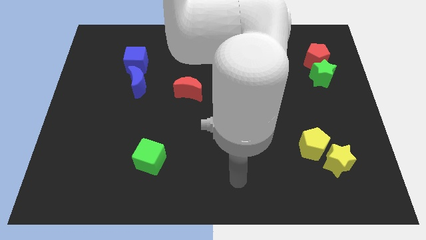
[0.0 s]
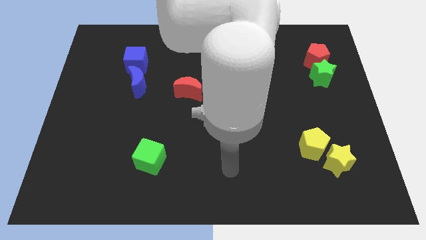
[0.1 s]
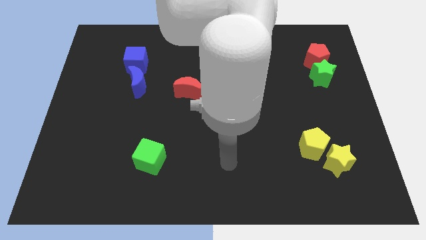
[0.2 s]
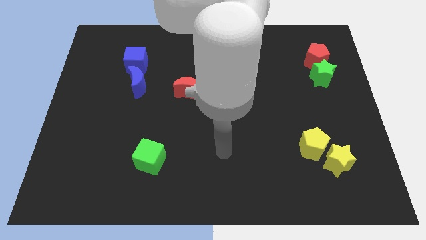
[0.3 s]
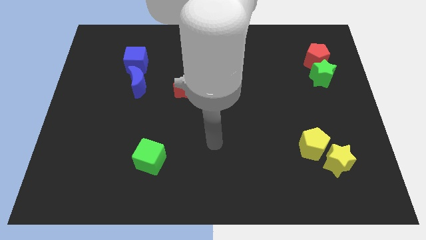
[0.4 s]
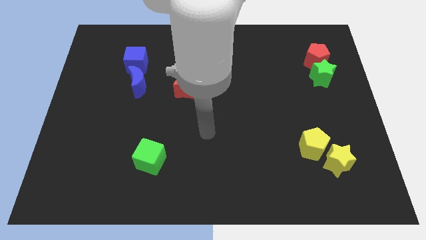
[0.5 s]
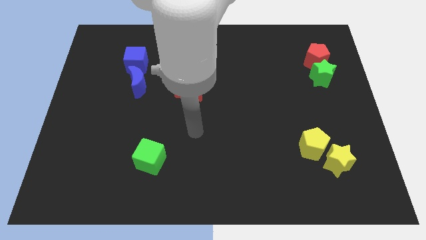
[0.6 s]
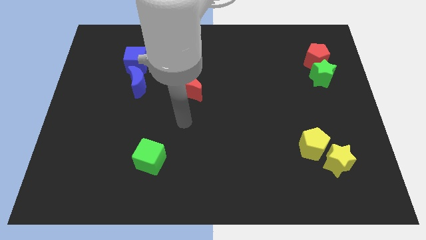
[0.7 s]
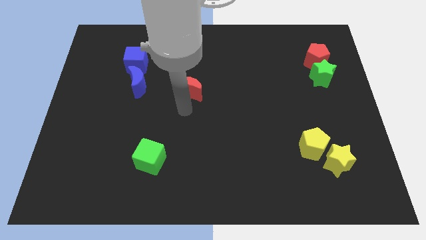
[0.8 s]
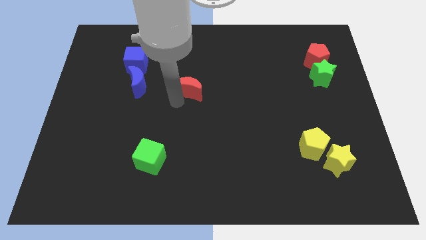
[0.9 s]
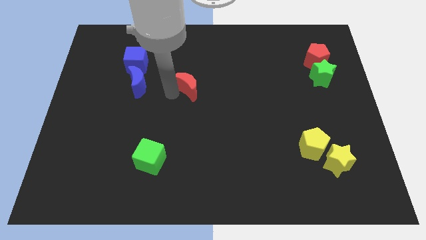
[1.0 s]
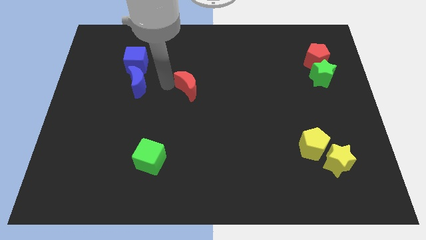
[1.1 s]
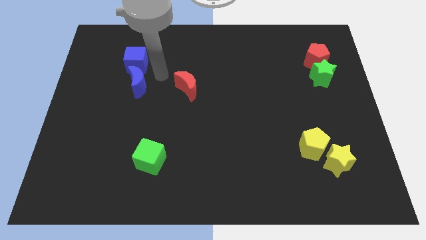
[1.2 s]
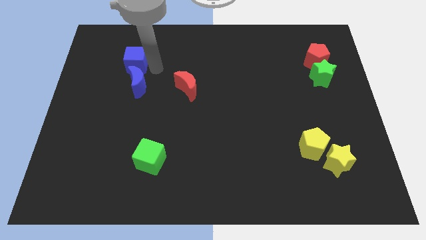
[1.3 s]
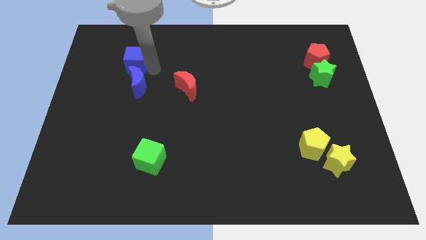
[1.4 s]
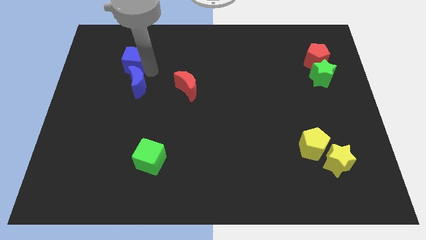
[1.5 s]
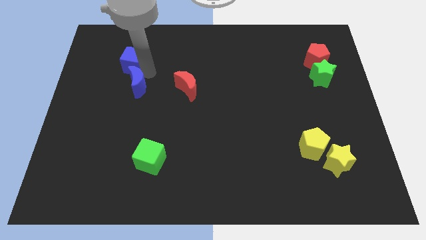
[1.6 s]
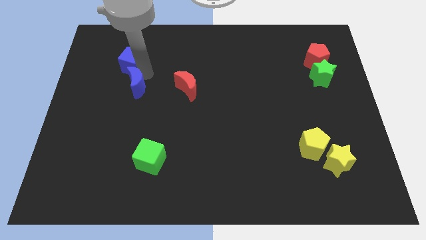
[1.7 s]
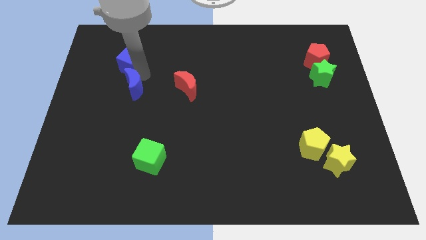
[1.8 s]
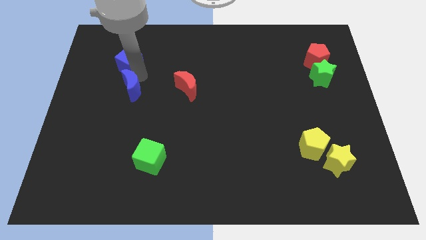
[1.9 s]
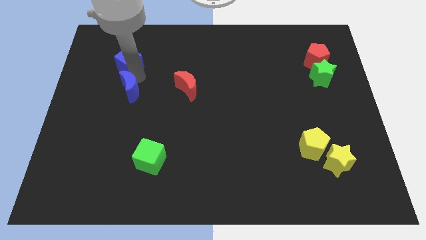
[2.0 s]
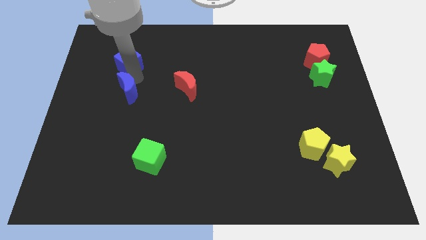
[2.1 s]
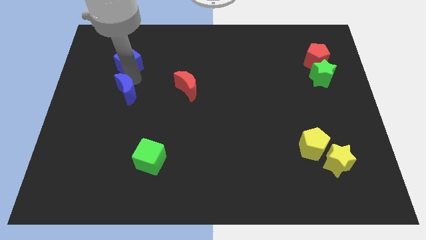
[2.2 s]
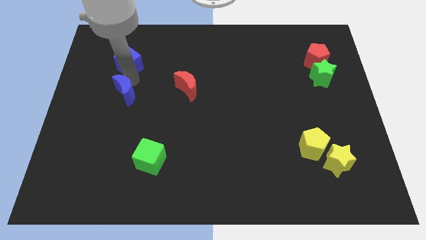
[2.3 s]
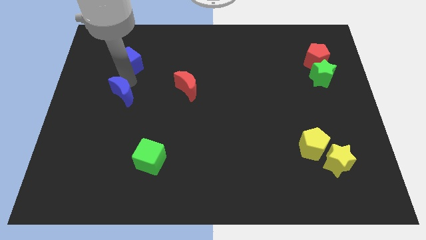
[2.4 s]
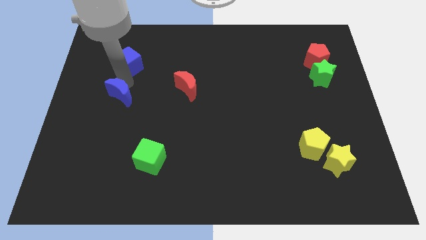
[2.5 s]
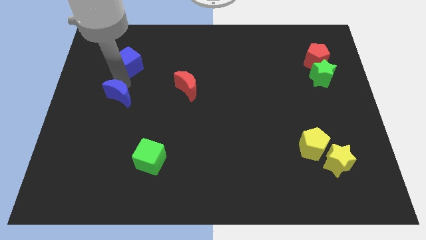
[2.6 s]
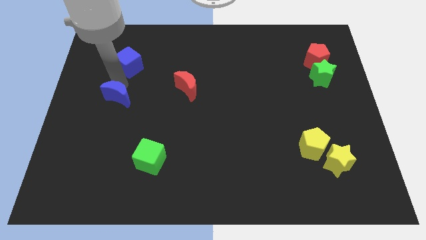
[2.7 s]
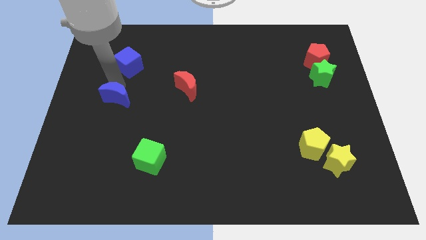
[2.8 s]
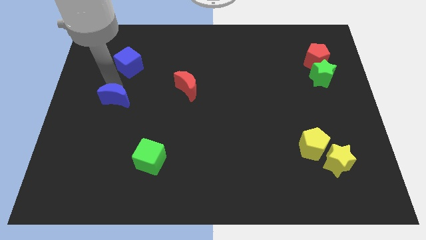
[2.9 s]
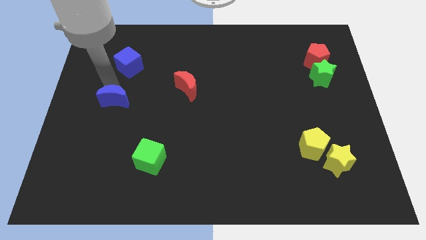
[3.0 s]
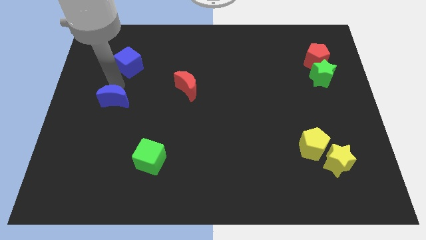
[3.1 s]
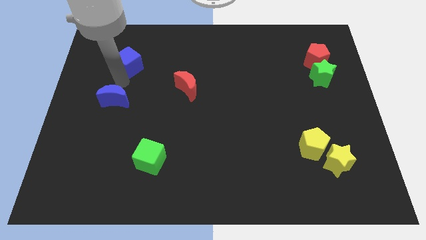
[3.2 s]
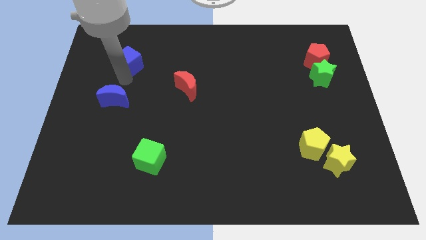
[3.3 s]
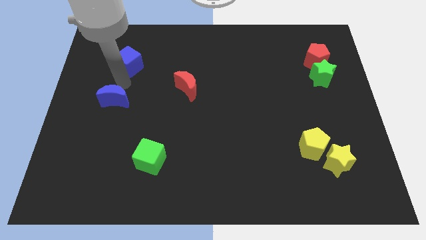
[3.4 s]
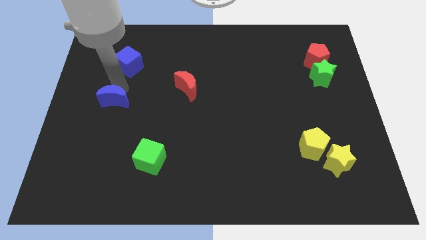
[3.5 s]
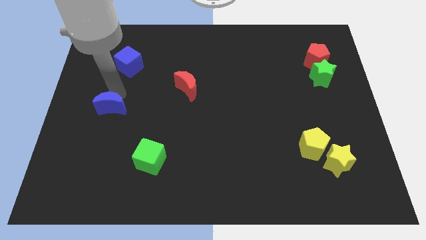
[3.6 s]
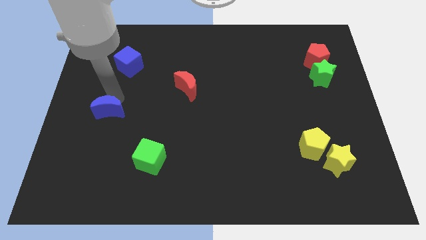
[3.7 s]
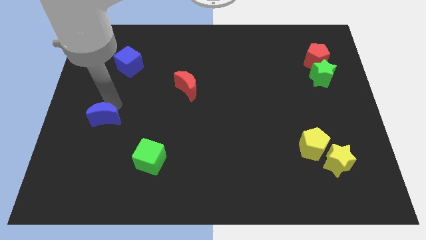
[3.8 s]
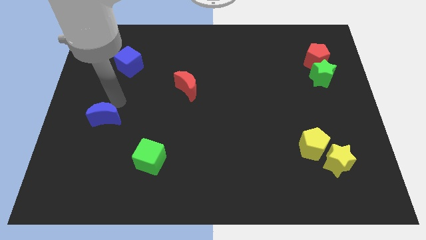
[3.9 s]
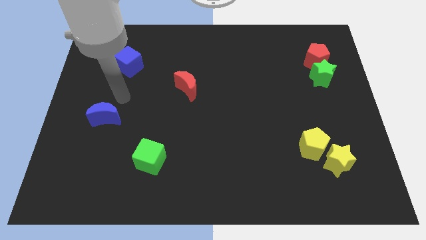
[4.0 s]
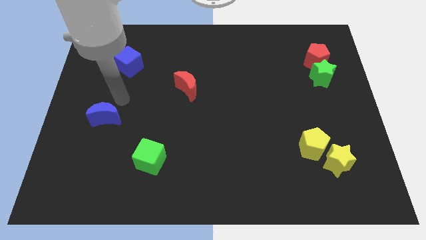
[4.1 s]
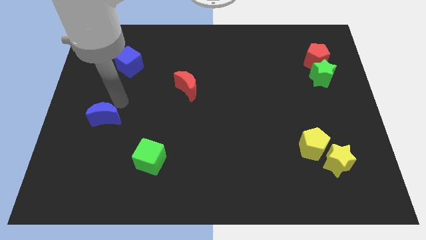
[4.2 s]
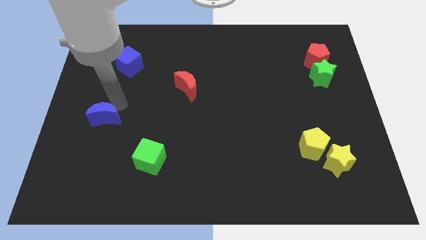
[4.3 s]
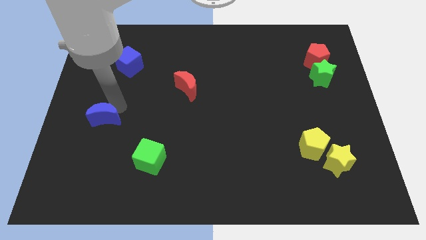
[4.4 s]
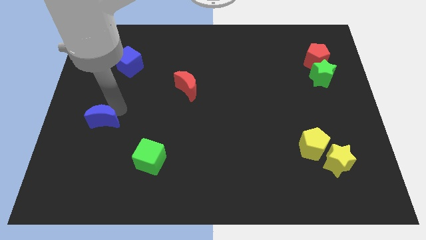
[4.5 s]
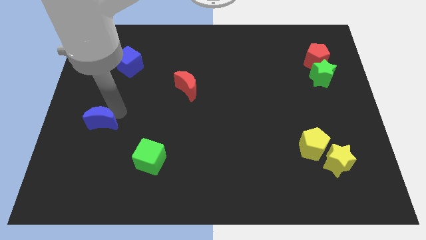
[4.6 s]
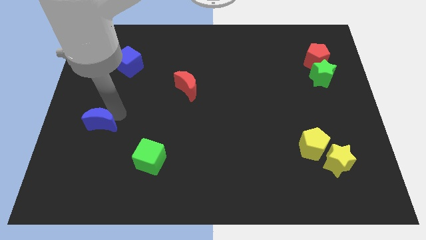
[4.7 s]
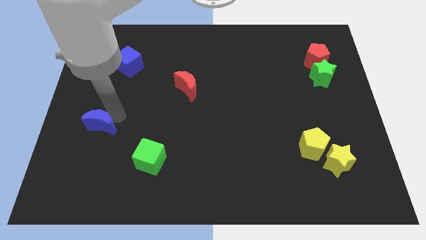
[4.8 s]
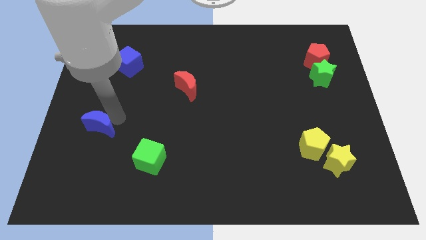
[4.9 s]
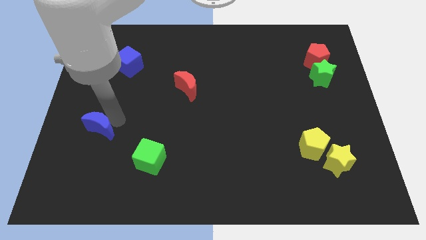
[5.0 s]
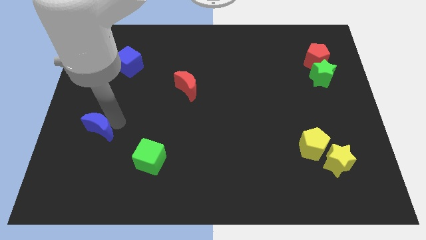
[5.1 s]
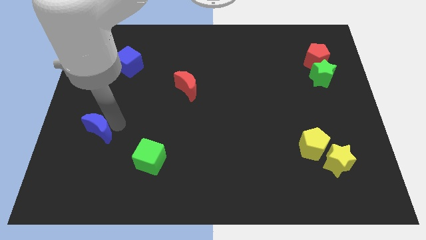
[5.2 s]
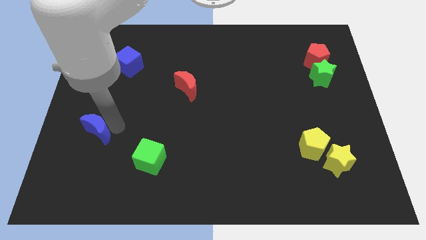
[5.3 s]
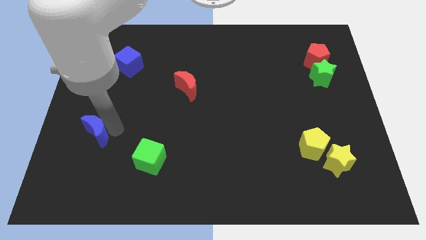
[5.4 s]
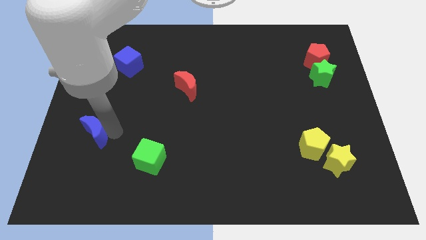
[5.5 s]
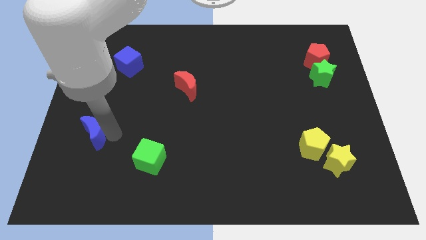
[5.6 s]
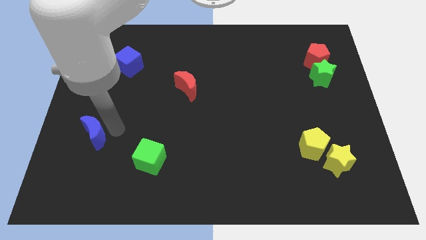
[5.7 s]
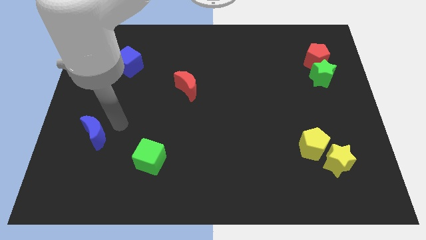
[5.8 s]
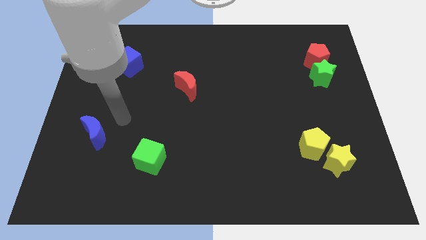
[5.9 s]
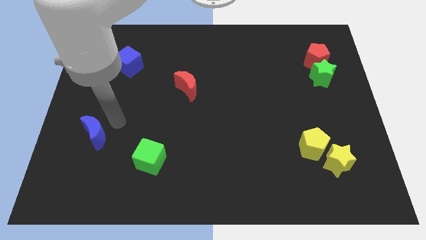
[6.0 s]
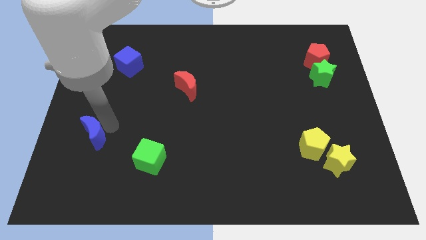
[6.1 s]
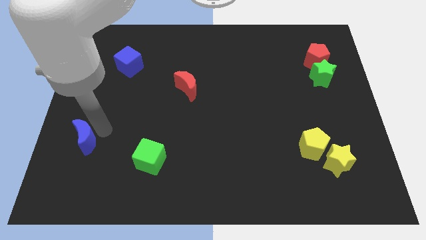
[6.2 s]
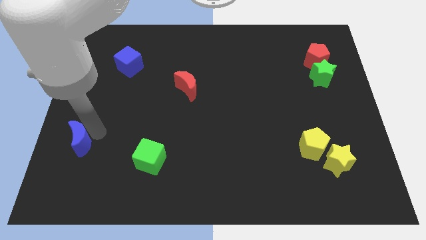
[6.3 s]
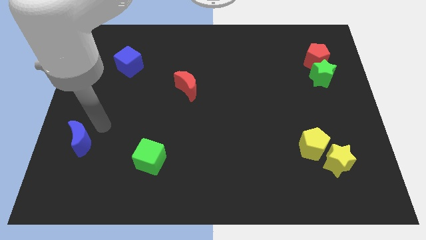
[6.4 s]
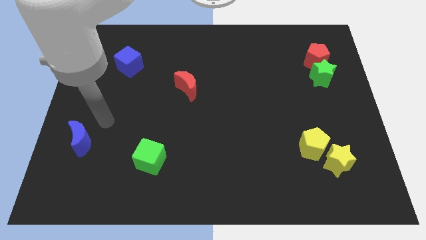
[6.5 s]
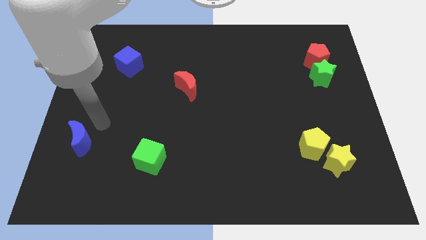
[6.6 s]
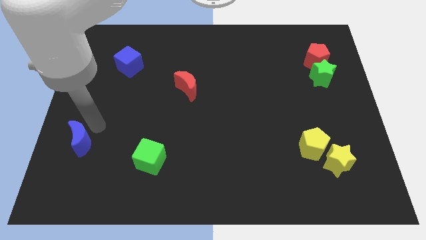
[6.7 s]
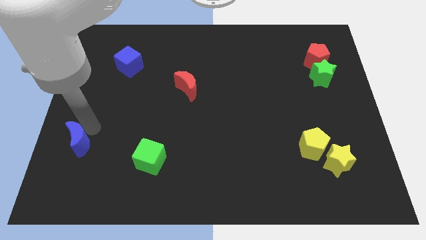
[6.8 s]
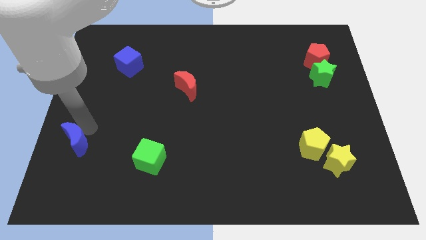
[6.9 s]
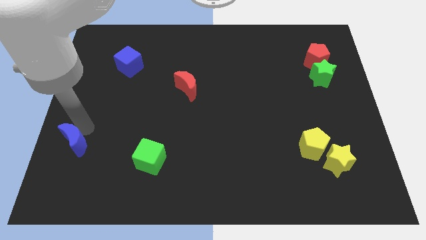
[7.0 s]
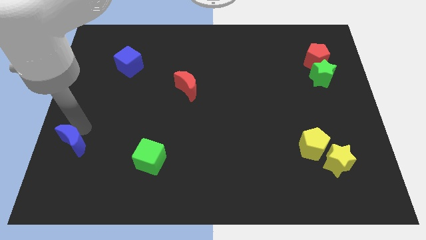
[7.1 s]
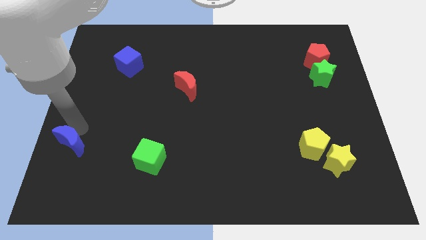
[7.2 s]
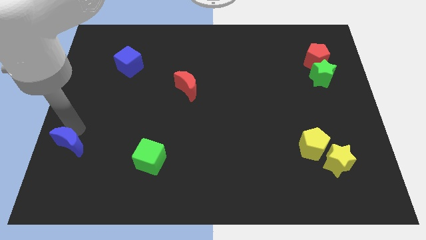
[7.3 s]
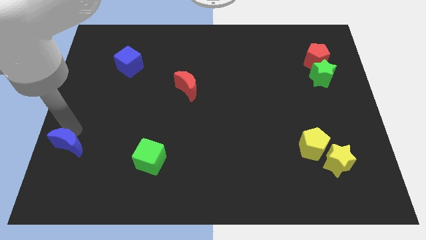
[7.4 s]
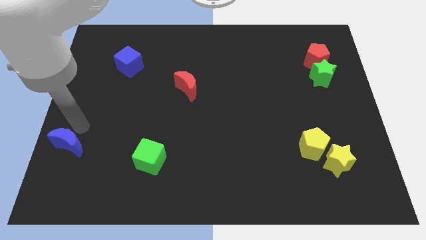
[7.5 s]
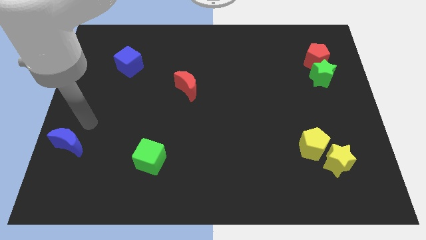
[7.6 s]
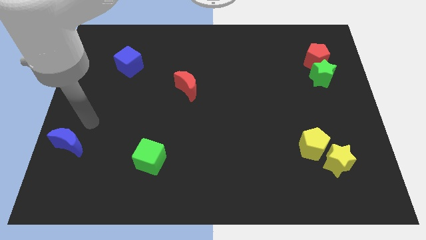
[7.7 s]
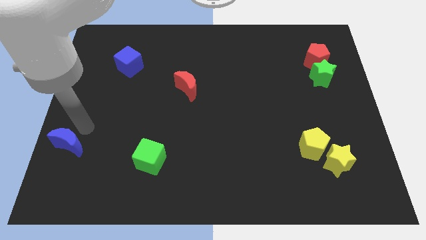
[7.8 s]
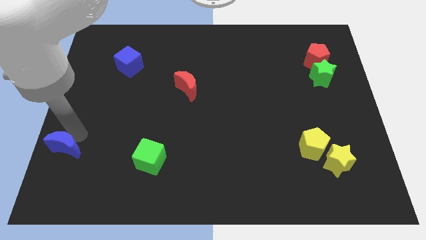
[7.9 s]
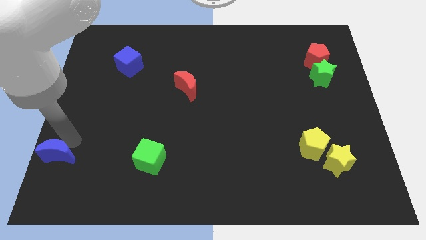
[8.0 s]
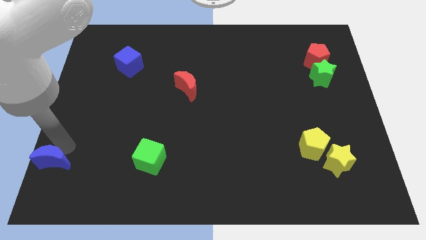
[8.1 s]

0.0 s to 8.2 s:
put the blue moon to the bottom left
